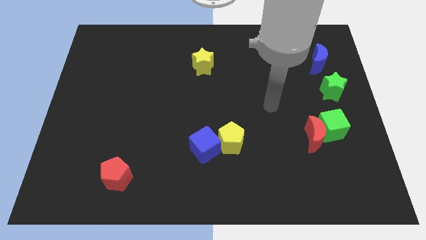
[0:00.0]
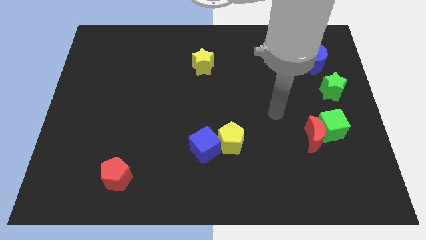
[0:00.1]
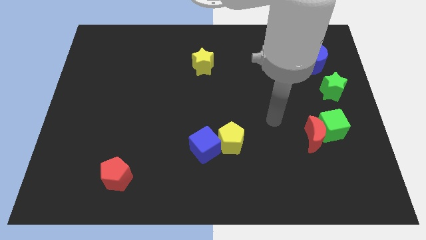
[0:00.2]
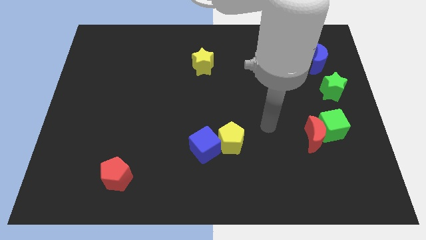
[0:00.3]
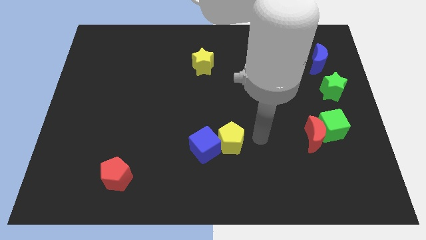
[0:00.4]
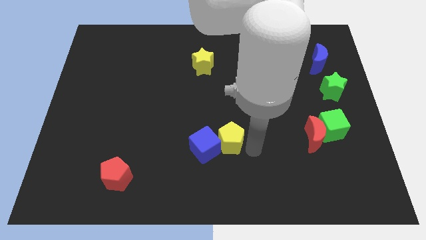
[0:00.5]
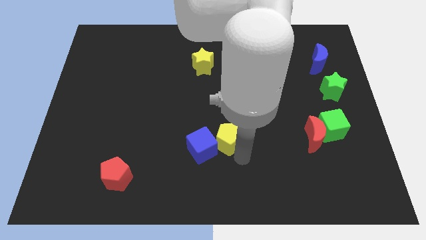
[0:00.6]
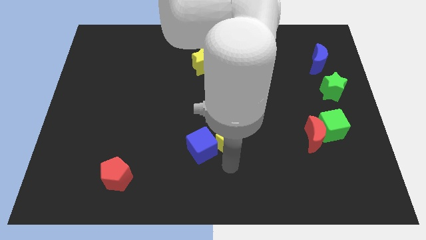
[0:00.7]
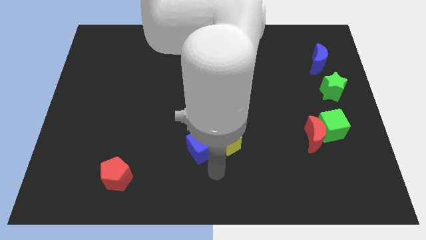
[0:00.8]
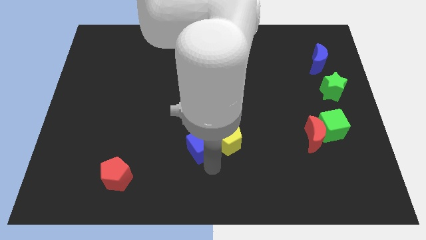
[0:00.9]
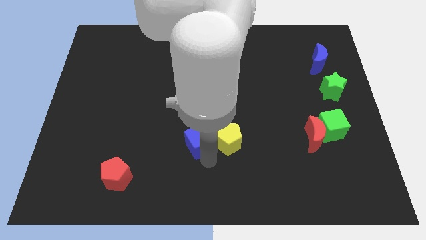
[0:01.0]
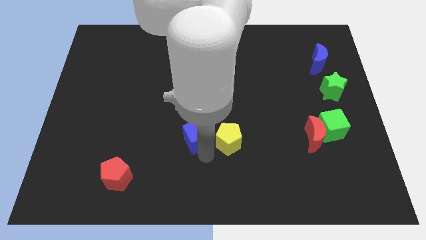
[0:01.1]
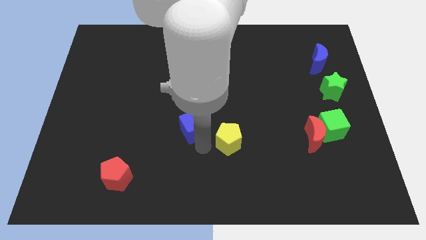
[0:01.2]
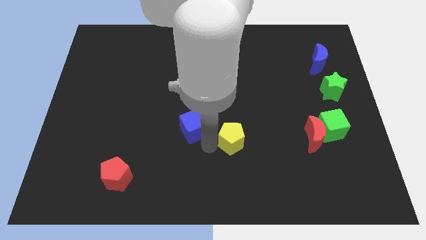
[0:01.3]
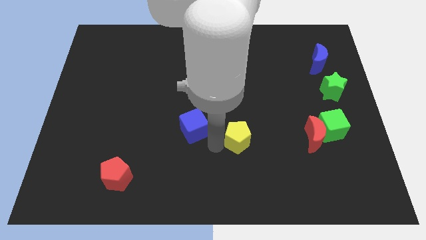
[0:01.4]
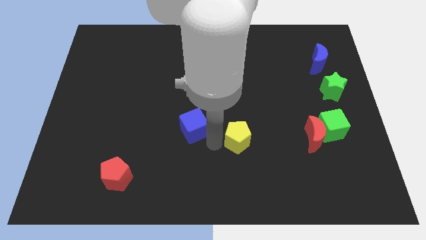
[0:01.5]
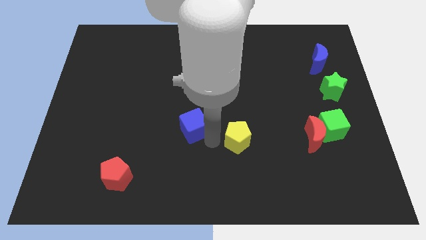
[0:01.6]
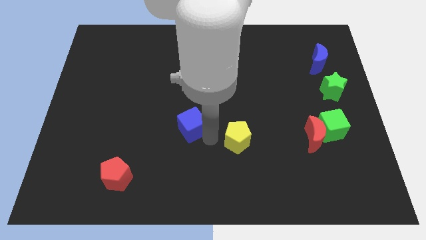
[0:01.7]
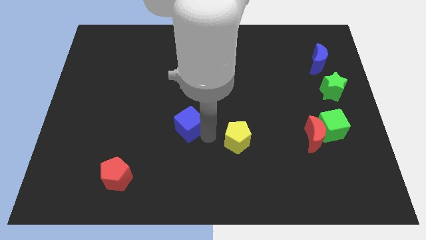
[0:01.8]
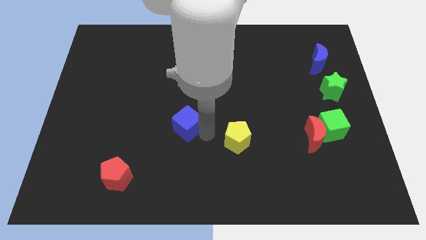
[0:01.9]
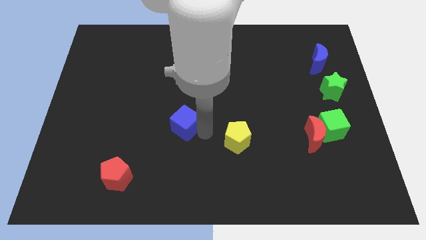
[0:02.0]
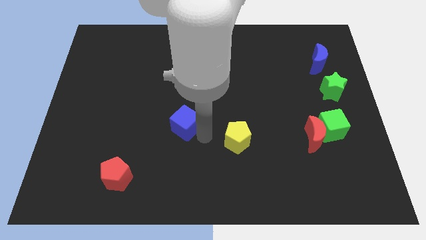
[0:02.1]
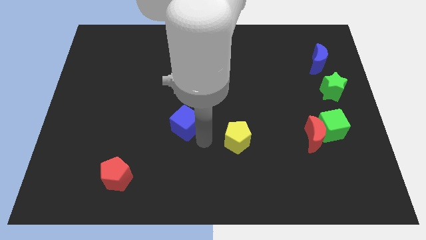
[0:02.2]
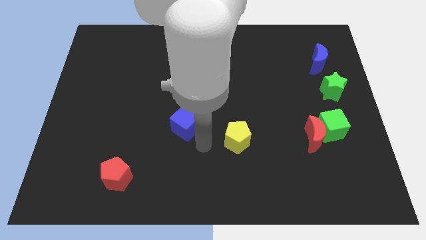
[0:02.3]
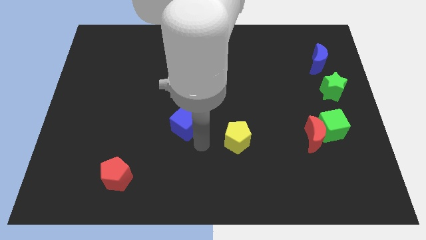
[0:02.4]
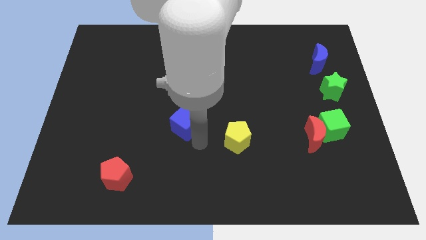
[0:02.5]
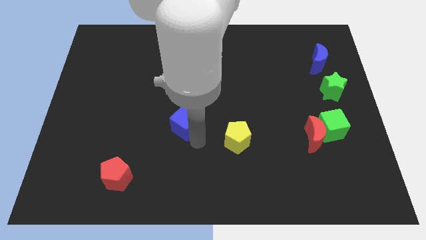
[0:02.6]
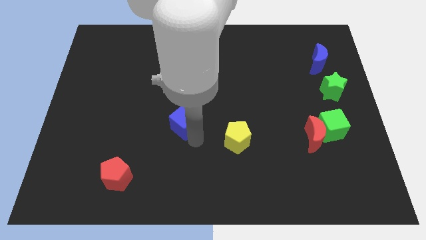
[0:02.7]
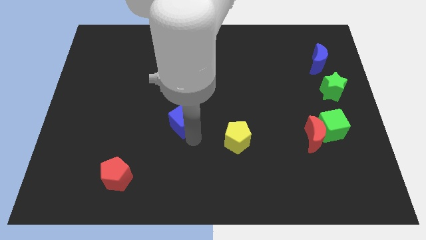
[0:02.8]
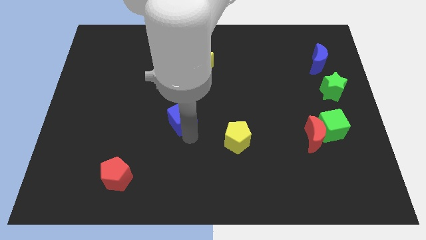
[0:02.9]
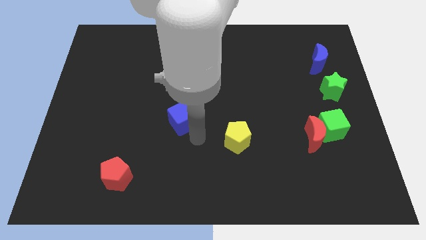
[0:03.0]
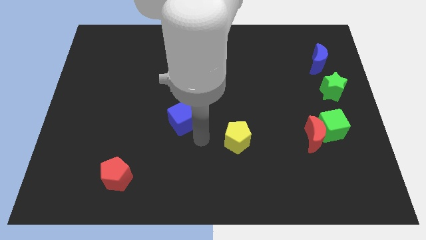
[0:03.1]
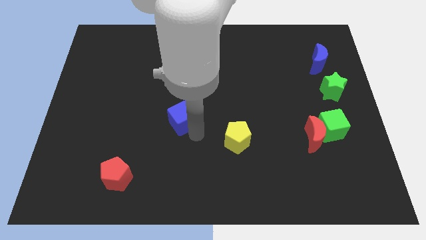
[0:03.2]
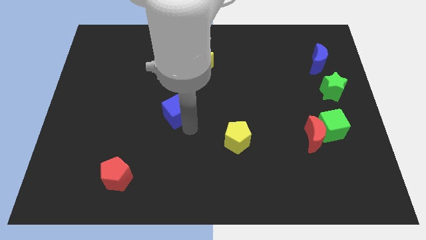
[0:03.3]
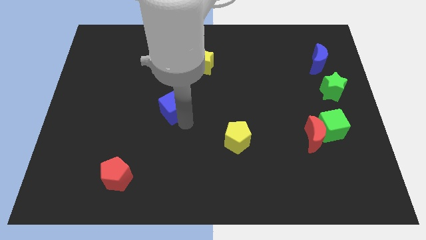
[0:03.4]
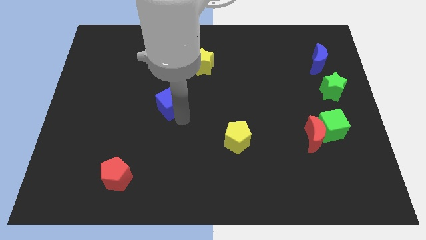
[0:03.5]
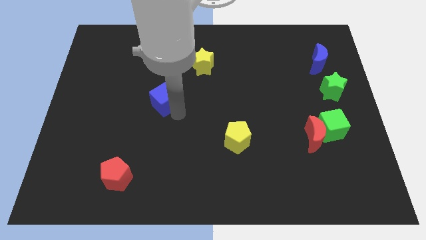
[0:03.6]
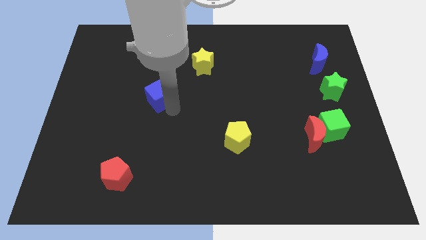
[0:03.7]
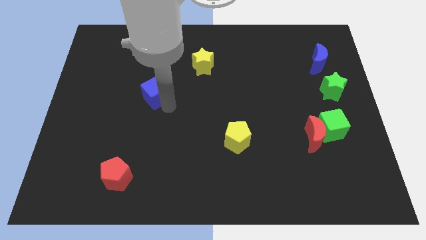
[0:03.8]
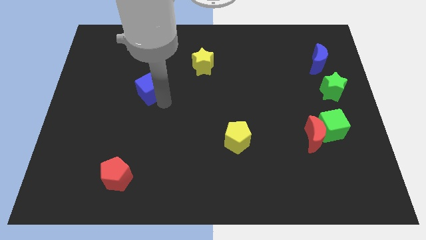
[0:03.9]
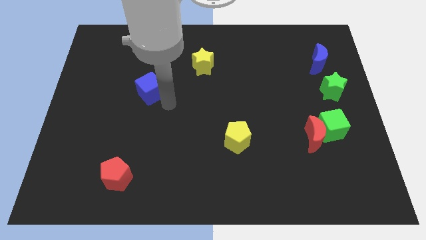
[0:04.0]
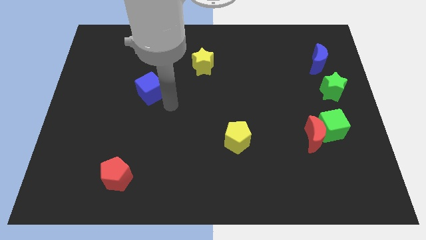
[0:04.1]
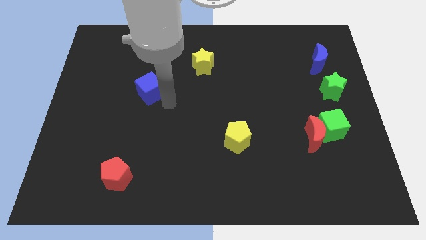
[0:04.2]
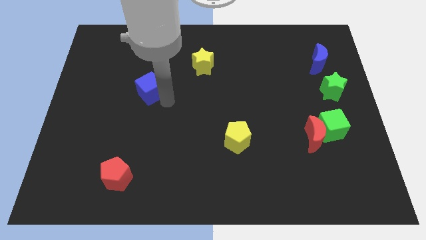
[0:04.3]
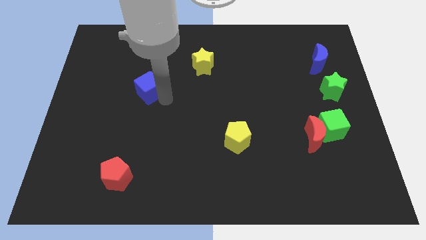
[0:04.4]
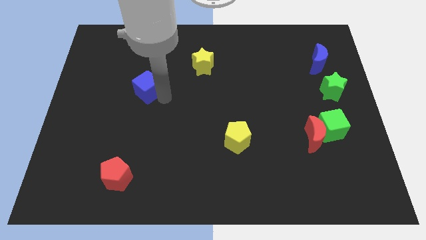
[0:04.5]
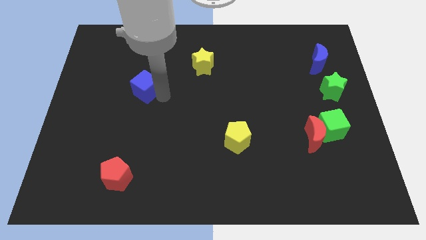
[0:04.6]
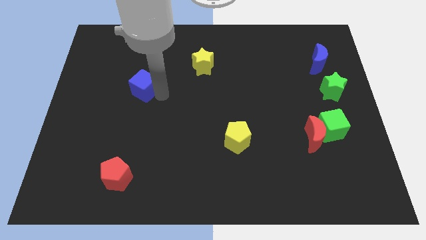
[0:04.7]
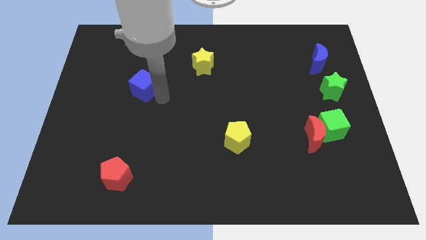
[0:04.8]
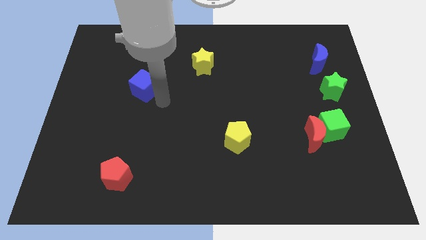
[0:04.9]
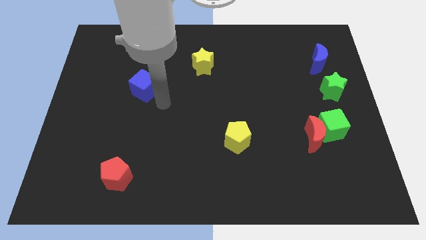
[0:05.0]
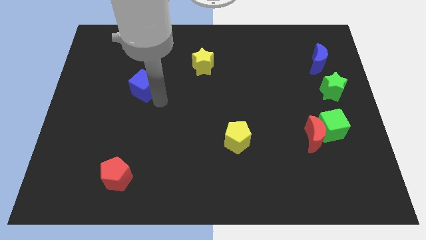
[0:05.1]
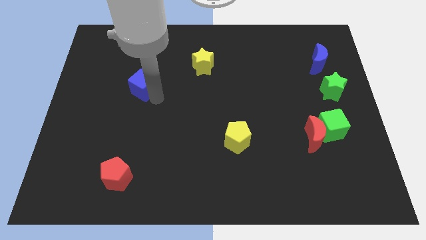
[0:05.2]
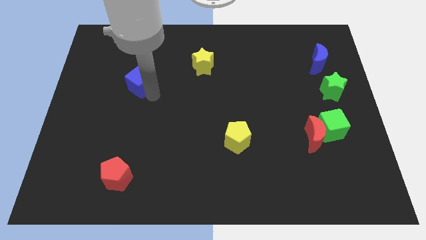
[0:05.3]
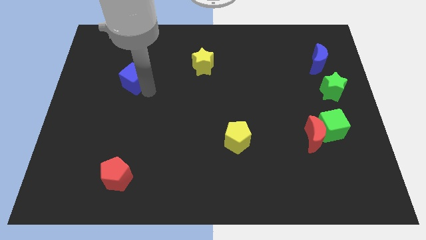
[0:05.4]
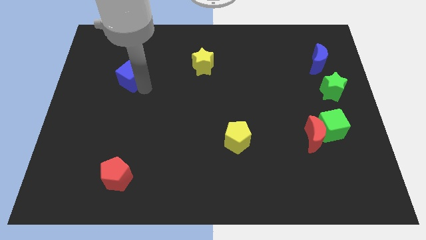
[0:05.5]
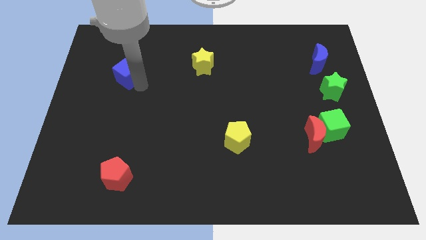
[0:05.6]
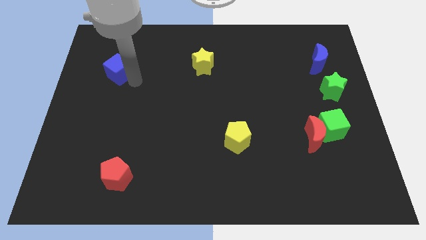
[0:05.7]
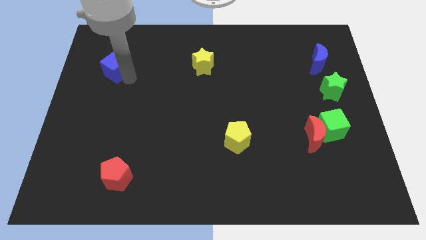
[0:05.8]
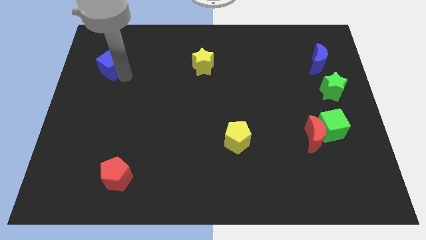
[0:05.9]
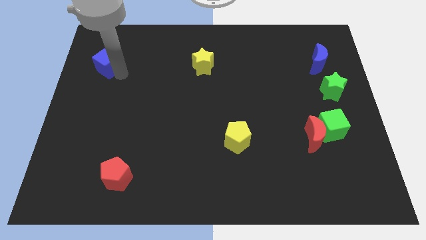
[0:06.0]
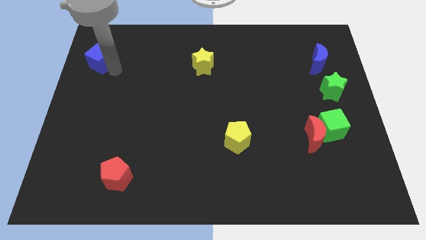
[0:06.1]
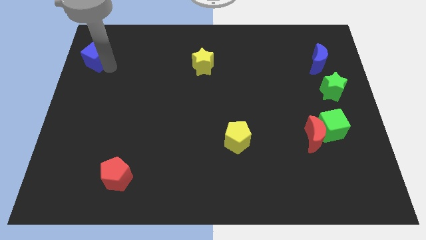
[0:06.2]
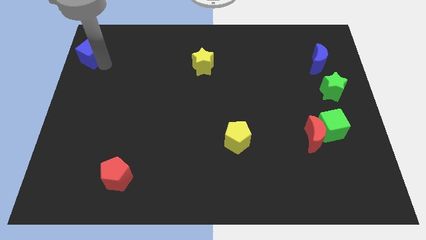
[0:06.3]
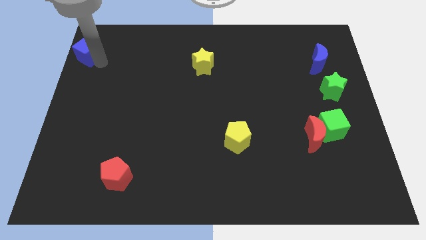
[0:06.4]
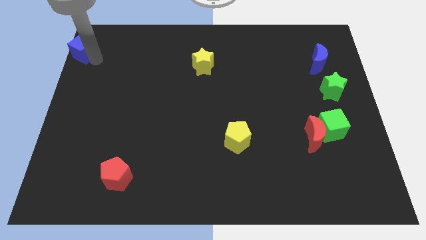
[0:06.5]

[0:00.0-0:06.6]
put the blue cube to the top left

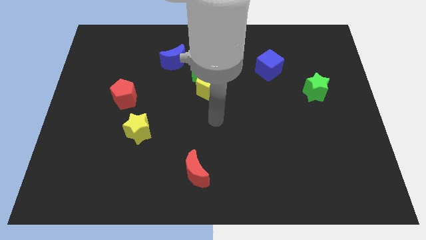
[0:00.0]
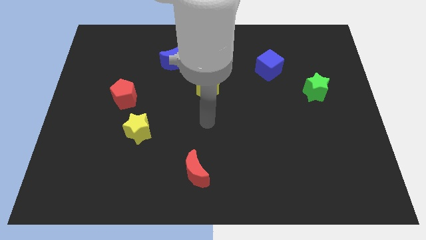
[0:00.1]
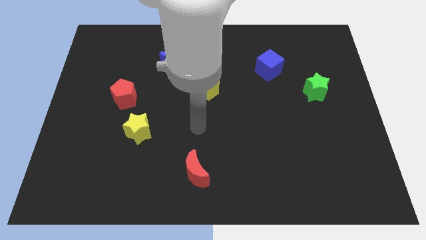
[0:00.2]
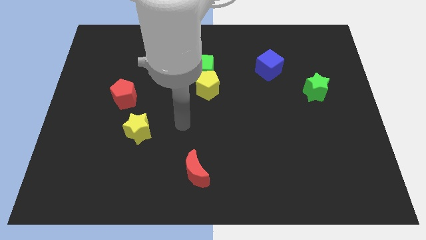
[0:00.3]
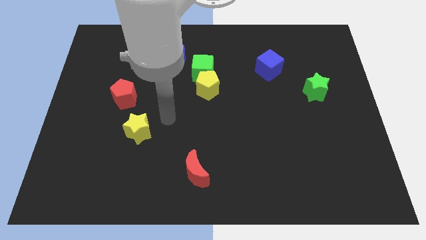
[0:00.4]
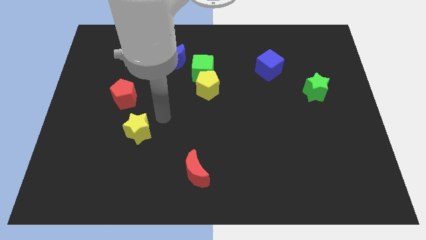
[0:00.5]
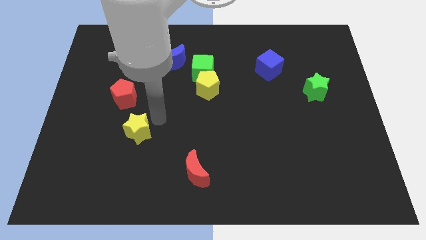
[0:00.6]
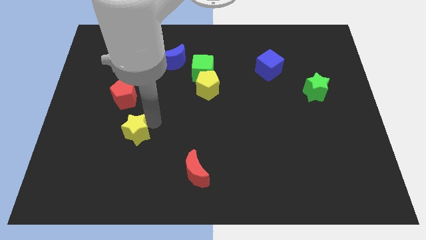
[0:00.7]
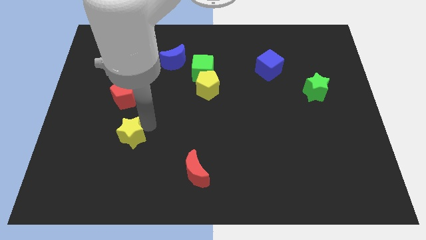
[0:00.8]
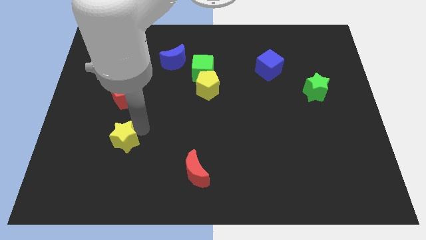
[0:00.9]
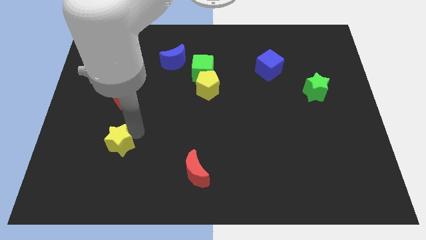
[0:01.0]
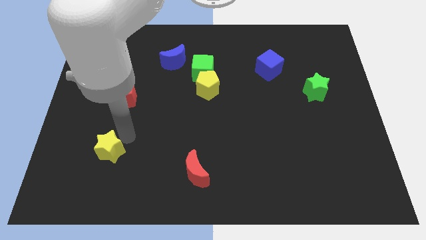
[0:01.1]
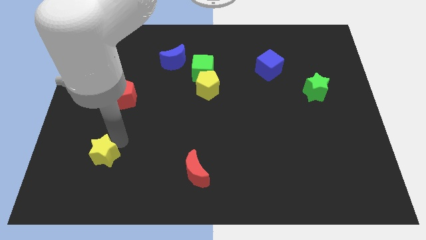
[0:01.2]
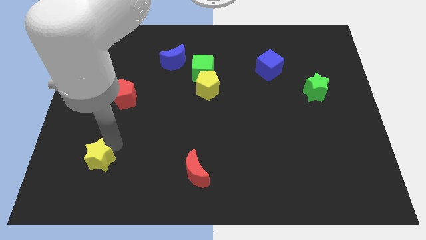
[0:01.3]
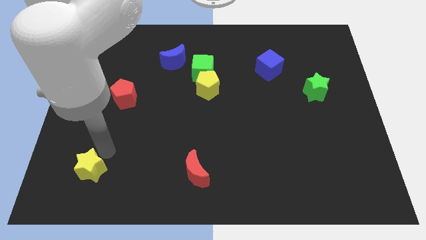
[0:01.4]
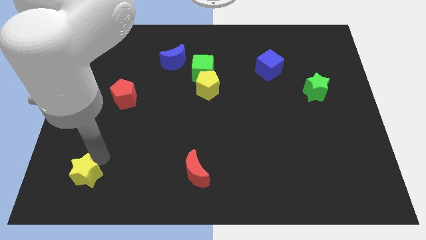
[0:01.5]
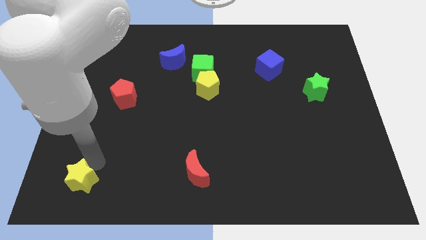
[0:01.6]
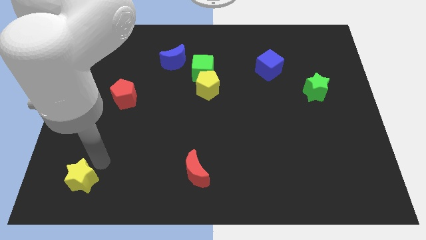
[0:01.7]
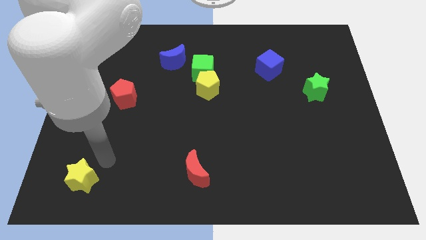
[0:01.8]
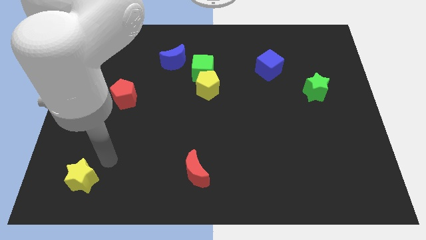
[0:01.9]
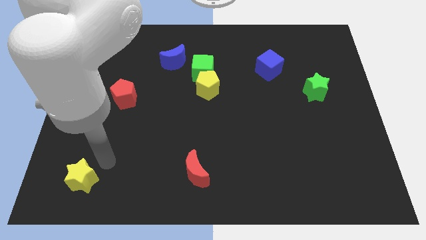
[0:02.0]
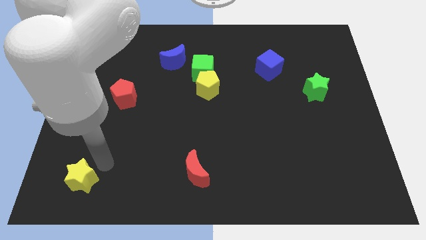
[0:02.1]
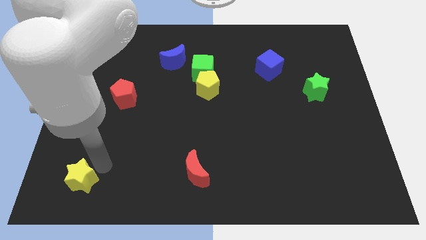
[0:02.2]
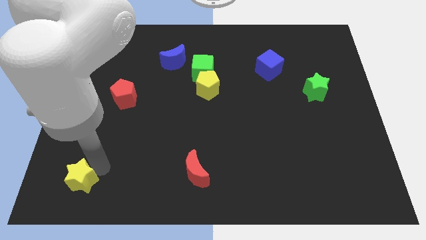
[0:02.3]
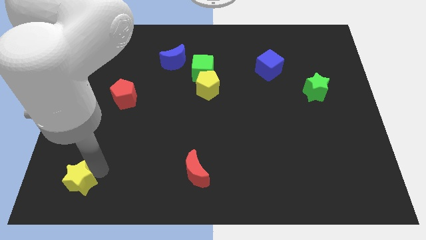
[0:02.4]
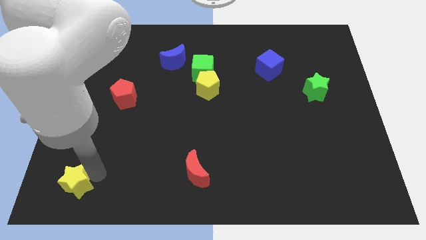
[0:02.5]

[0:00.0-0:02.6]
slide the yellow star to the bottom left of the board
